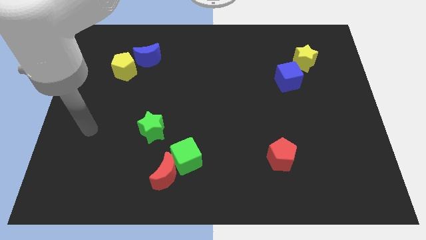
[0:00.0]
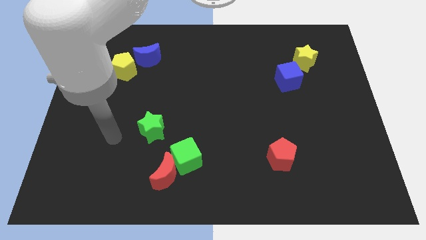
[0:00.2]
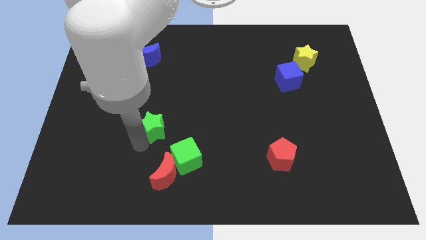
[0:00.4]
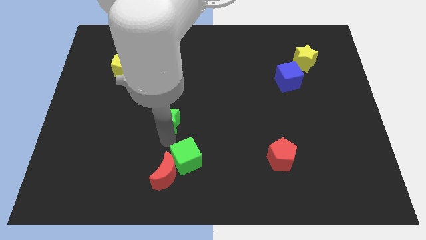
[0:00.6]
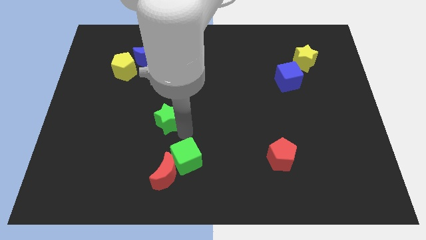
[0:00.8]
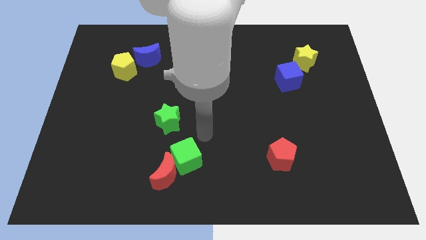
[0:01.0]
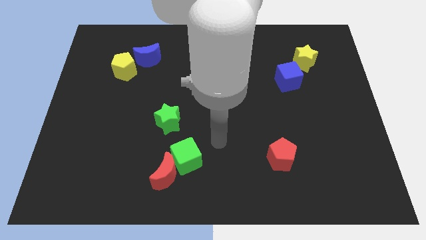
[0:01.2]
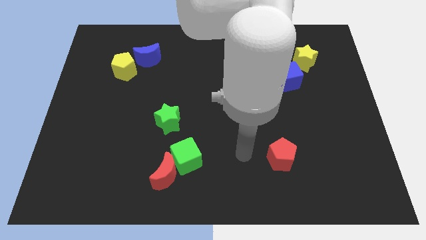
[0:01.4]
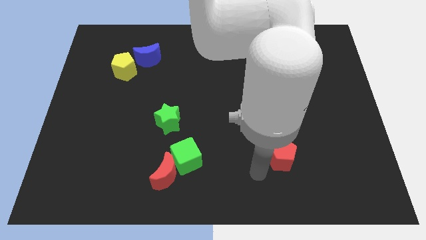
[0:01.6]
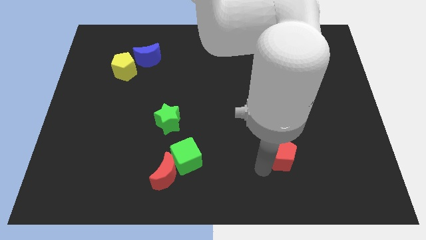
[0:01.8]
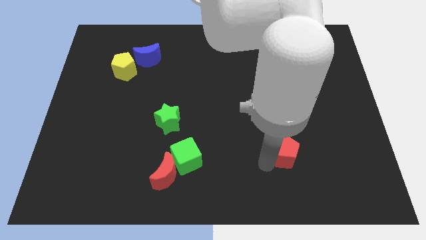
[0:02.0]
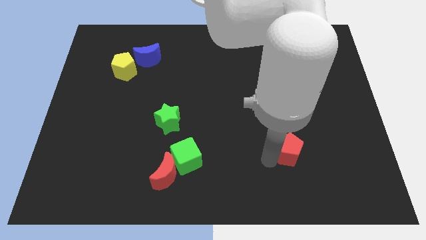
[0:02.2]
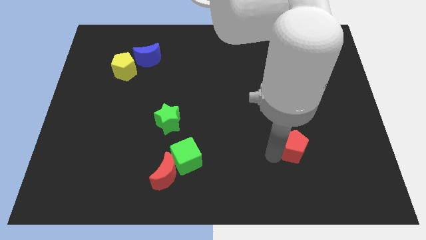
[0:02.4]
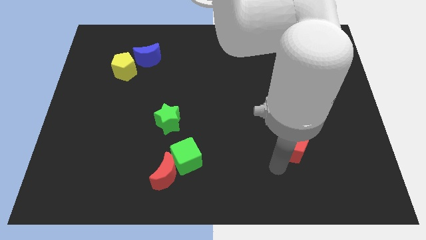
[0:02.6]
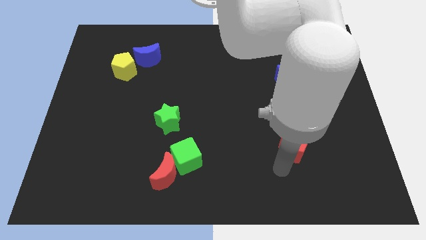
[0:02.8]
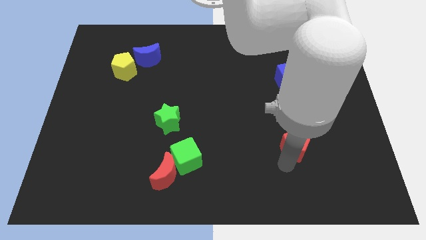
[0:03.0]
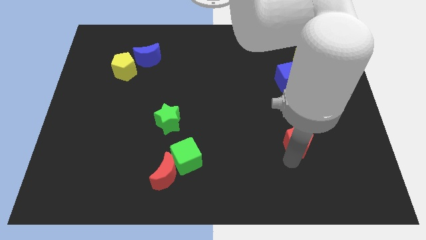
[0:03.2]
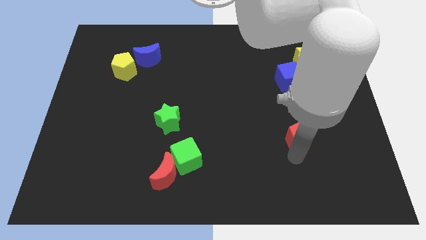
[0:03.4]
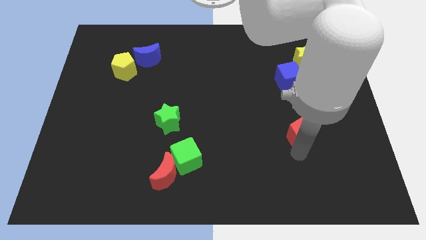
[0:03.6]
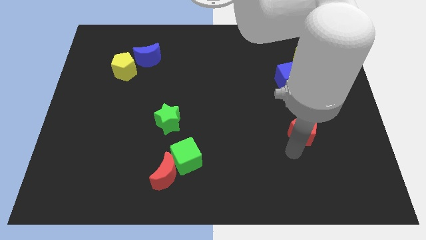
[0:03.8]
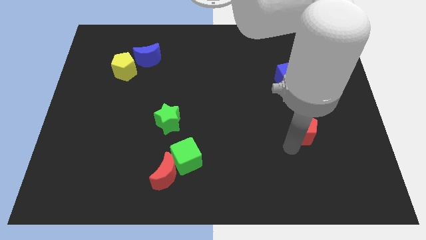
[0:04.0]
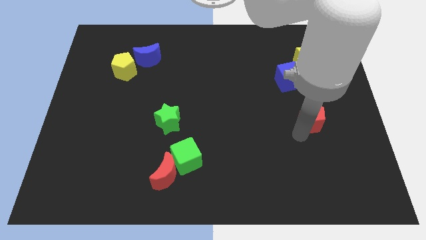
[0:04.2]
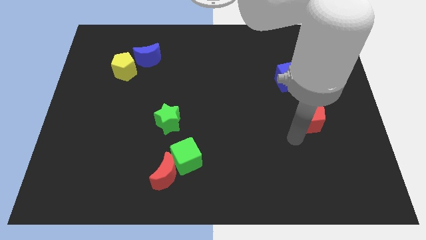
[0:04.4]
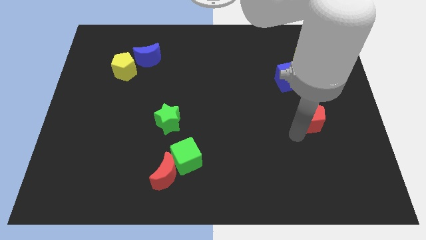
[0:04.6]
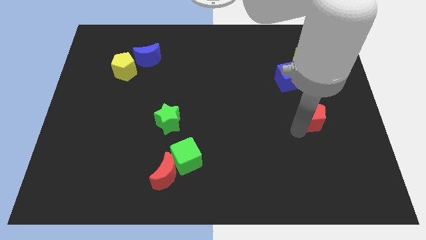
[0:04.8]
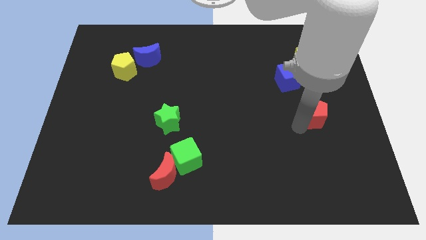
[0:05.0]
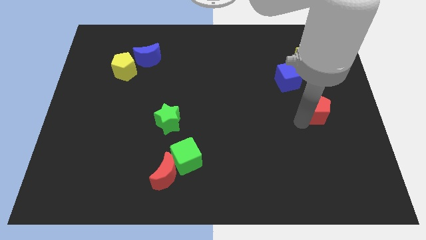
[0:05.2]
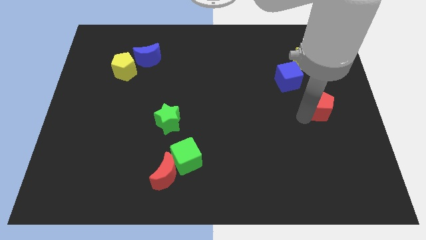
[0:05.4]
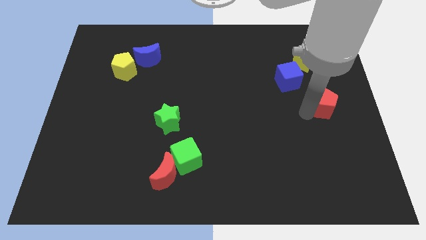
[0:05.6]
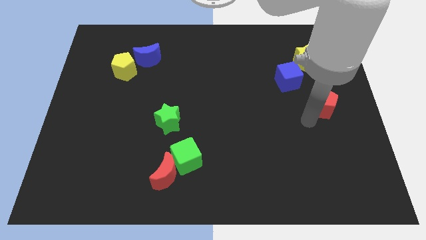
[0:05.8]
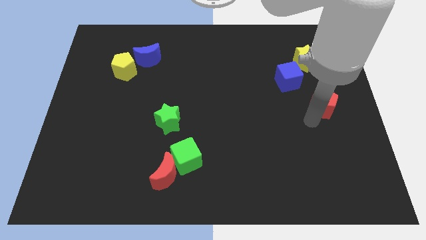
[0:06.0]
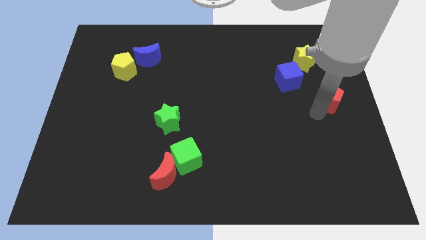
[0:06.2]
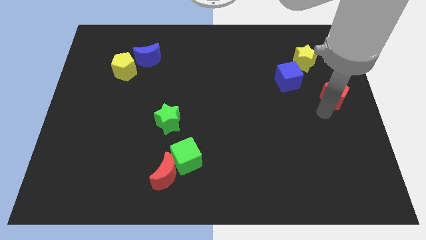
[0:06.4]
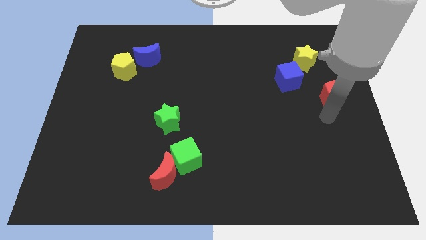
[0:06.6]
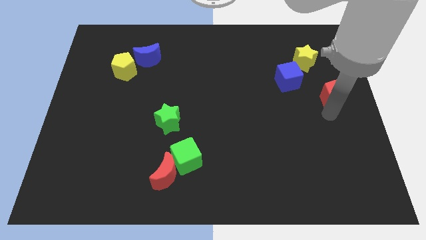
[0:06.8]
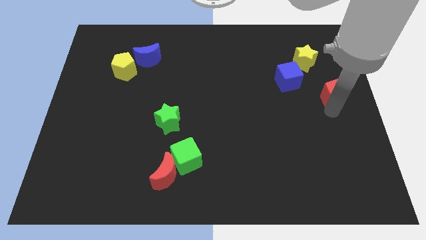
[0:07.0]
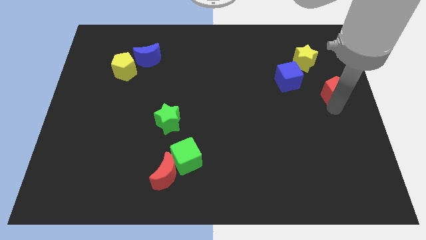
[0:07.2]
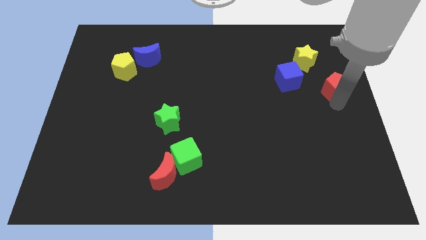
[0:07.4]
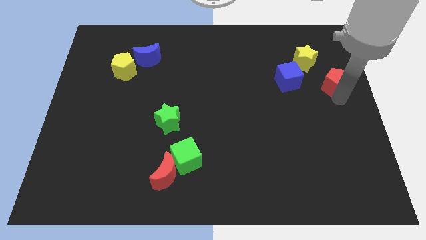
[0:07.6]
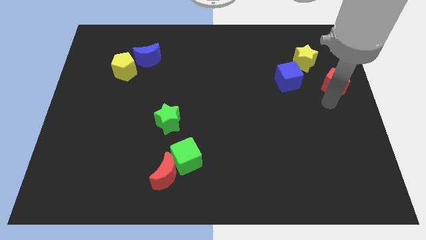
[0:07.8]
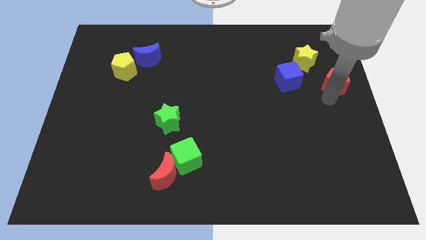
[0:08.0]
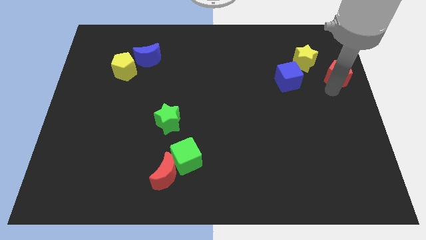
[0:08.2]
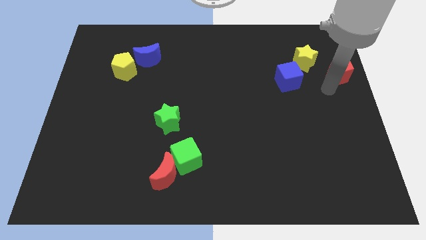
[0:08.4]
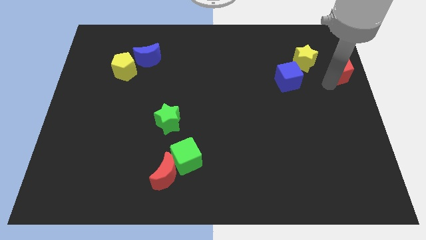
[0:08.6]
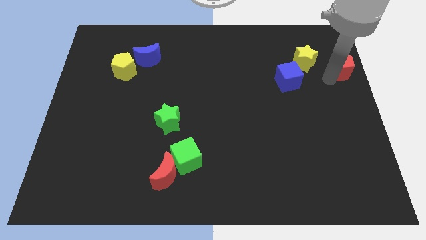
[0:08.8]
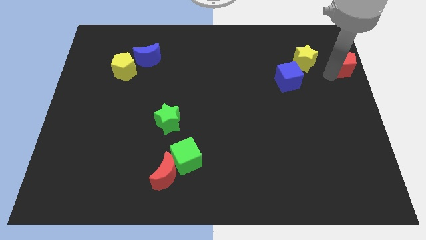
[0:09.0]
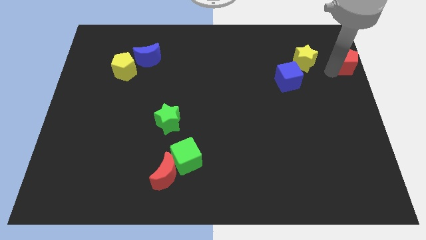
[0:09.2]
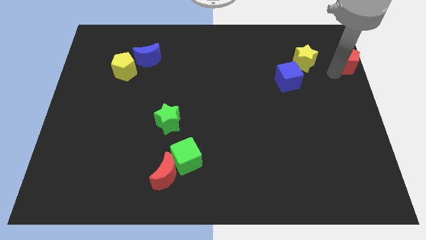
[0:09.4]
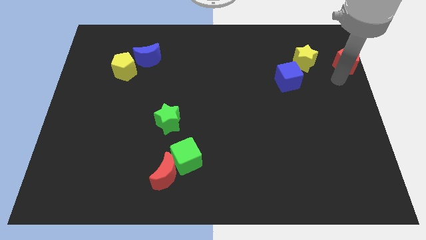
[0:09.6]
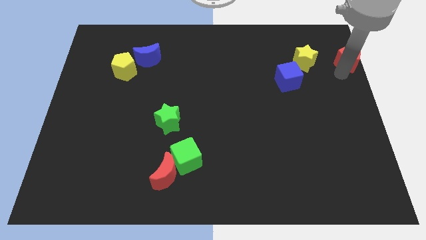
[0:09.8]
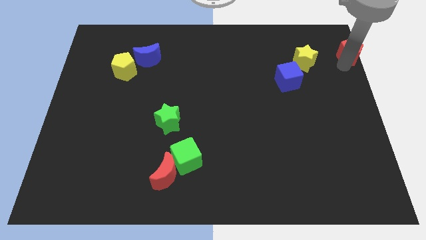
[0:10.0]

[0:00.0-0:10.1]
push the red pentagon to the top right corner

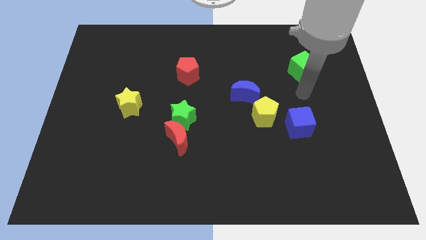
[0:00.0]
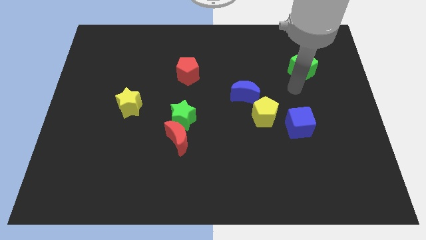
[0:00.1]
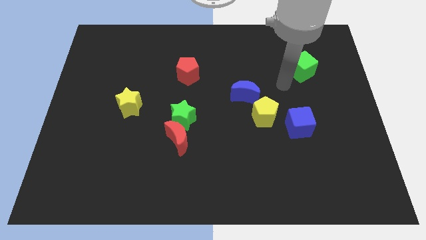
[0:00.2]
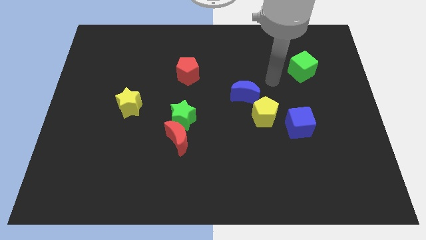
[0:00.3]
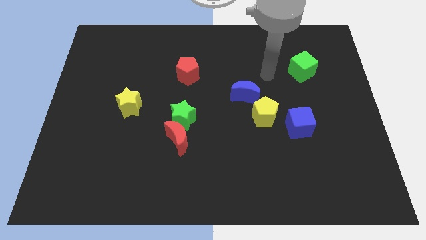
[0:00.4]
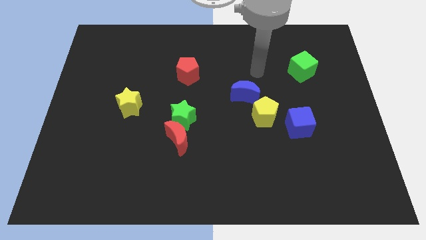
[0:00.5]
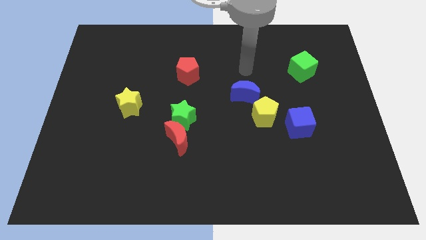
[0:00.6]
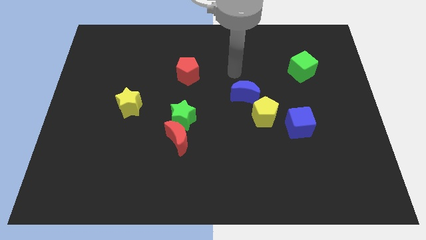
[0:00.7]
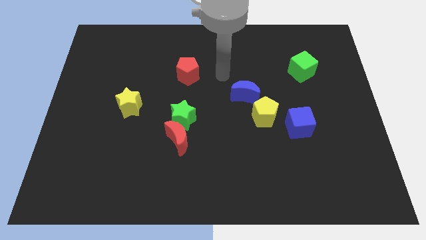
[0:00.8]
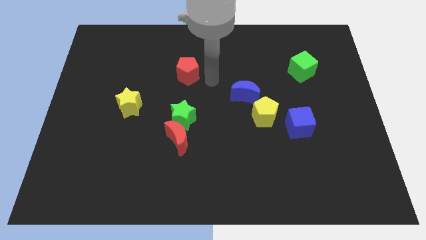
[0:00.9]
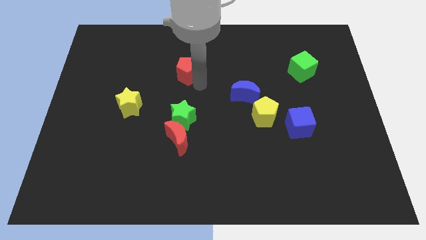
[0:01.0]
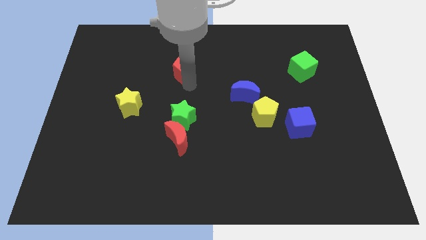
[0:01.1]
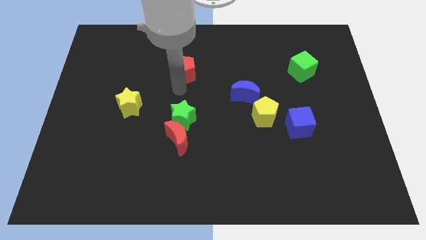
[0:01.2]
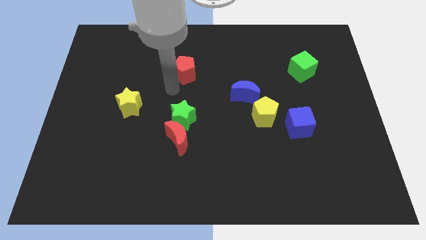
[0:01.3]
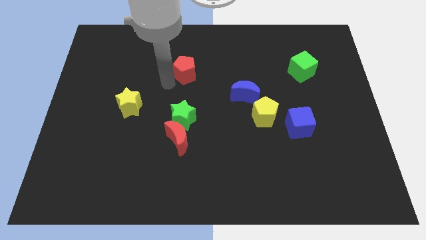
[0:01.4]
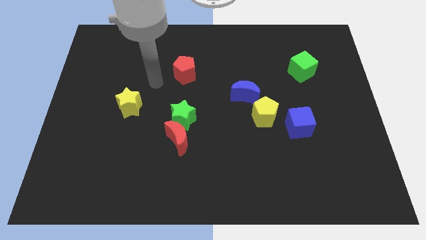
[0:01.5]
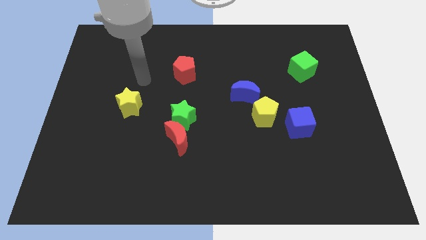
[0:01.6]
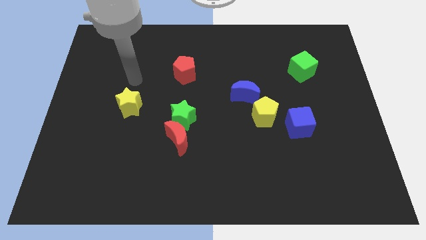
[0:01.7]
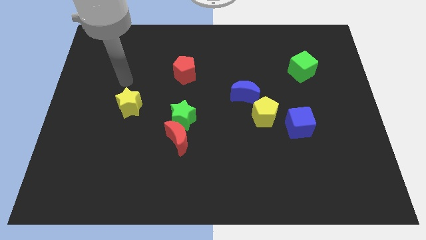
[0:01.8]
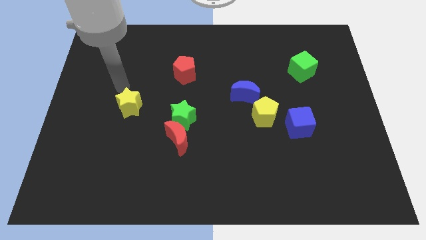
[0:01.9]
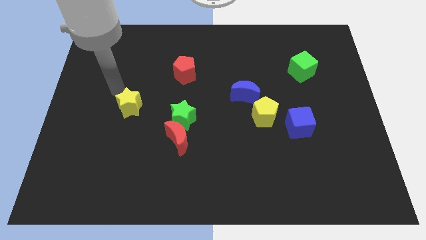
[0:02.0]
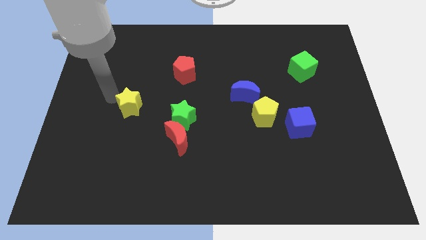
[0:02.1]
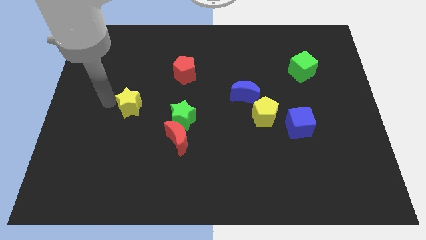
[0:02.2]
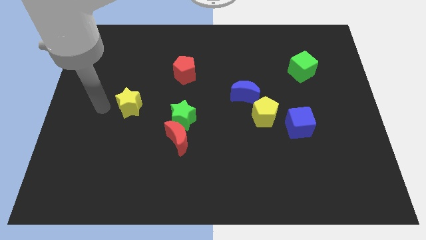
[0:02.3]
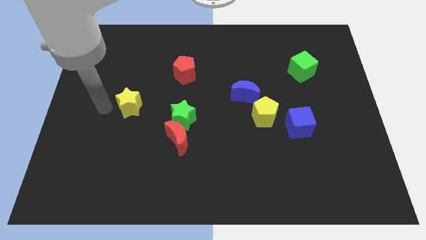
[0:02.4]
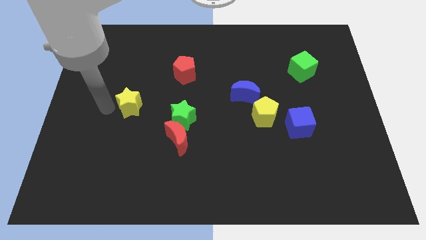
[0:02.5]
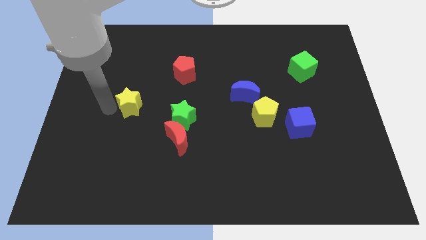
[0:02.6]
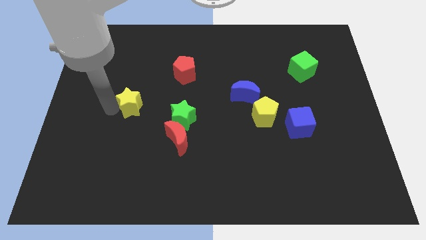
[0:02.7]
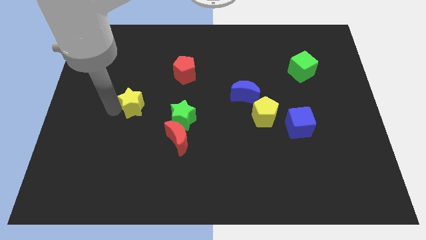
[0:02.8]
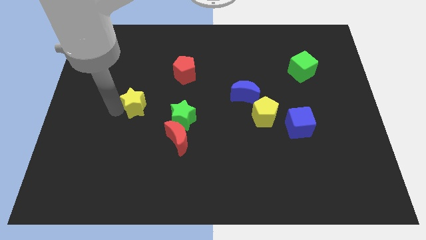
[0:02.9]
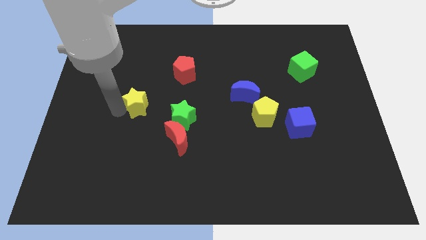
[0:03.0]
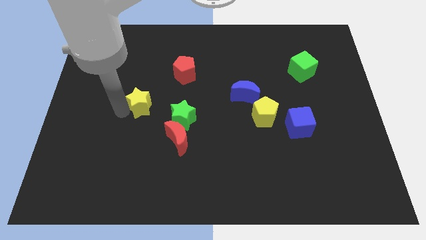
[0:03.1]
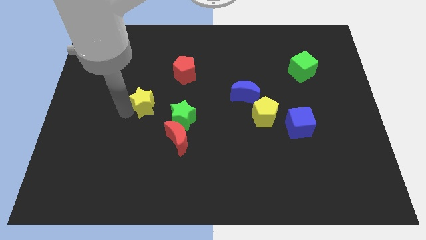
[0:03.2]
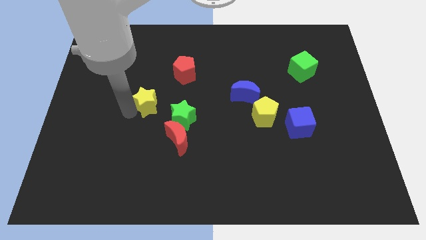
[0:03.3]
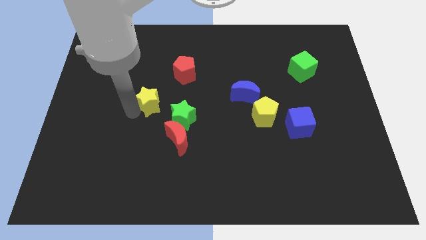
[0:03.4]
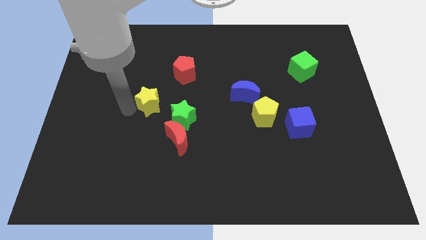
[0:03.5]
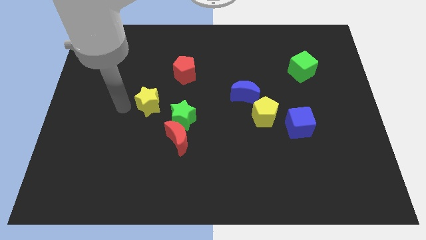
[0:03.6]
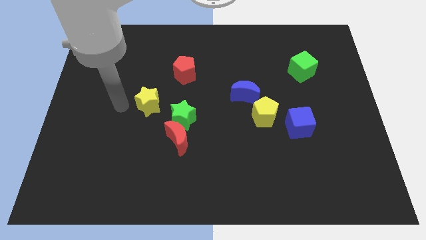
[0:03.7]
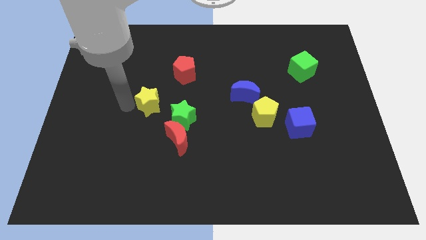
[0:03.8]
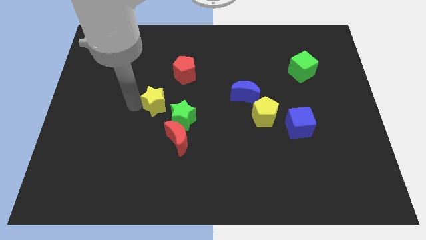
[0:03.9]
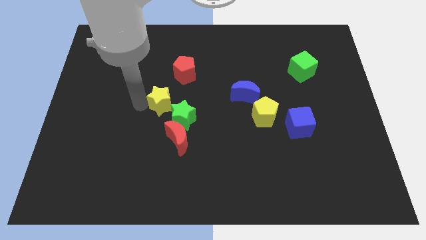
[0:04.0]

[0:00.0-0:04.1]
push the yellow star to the middle
